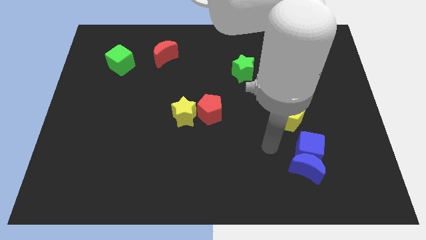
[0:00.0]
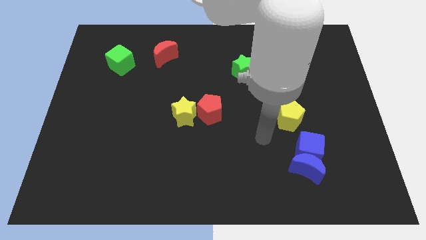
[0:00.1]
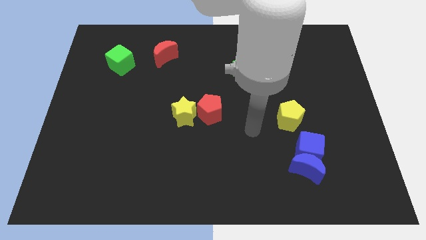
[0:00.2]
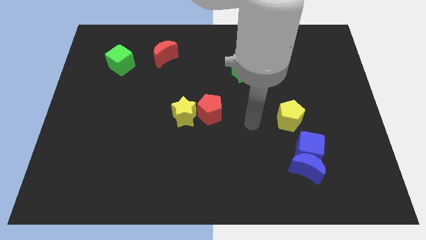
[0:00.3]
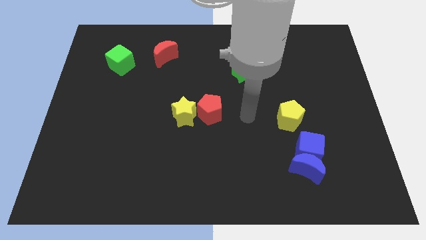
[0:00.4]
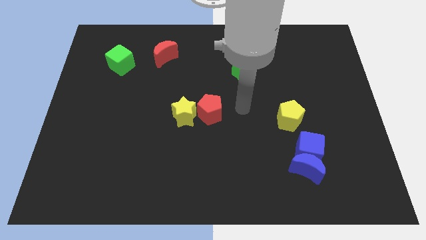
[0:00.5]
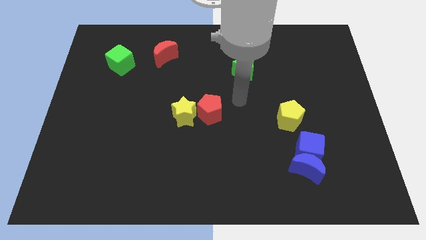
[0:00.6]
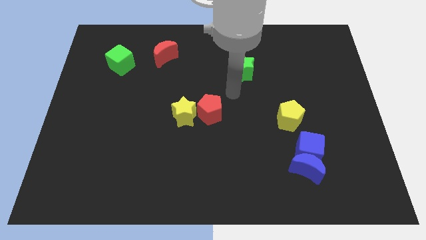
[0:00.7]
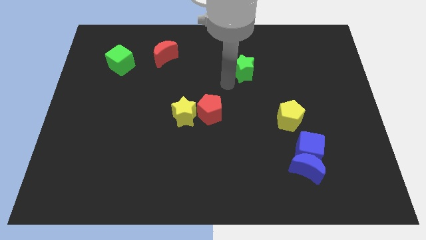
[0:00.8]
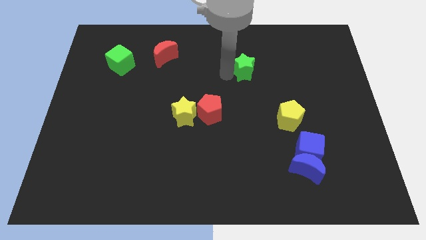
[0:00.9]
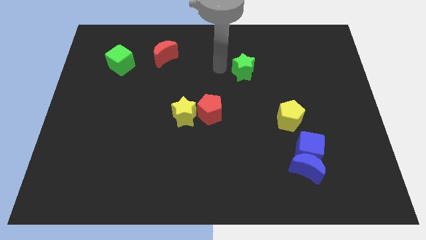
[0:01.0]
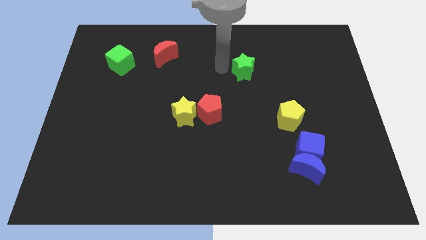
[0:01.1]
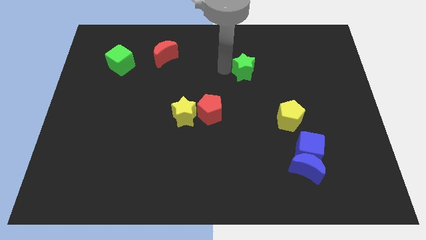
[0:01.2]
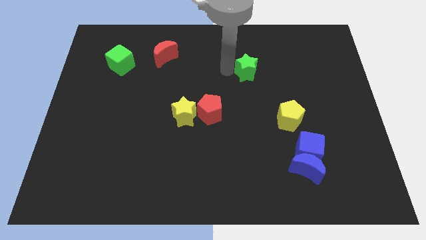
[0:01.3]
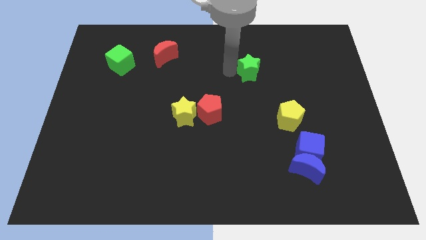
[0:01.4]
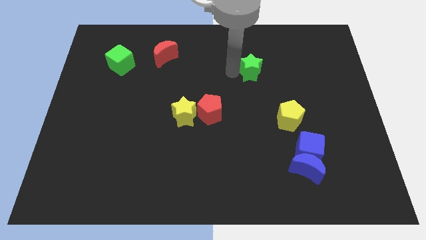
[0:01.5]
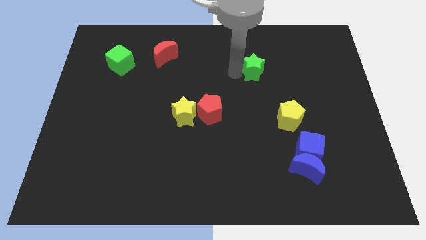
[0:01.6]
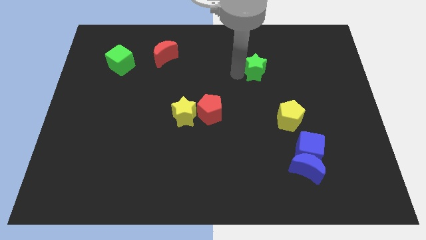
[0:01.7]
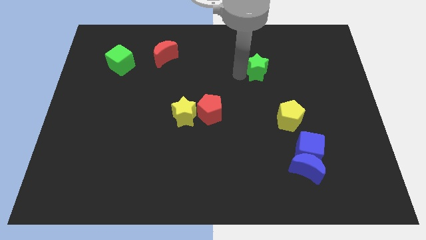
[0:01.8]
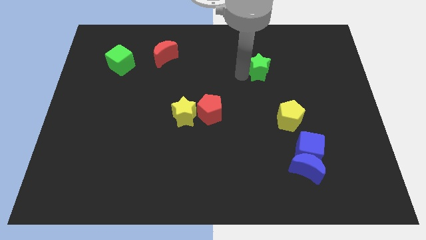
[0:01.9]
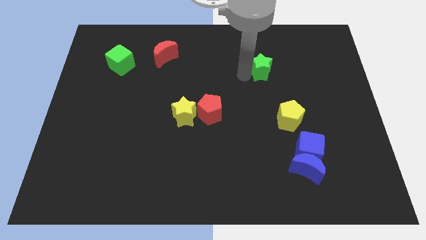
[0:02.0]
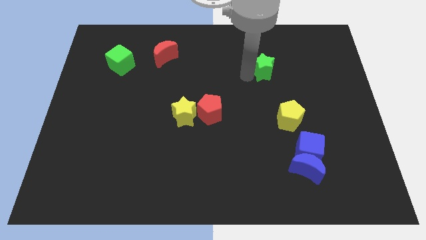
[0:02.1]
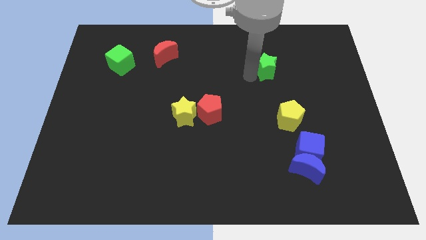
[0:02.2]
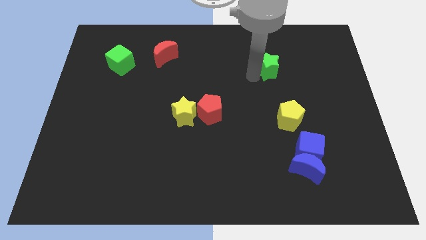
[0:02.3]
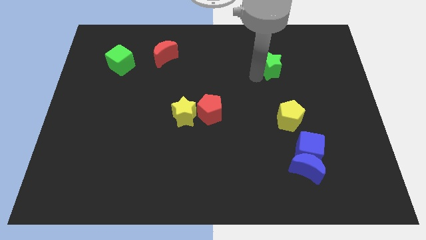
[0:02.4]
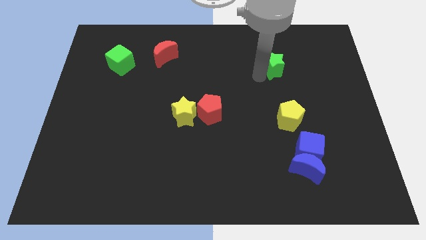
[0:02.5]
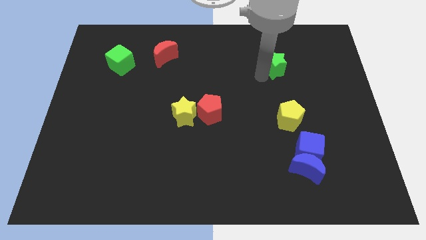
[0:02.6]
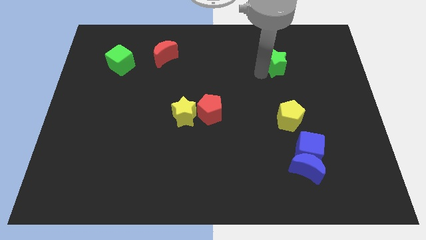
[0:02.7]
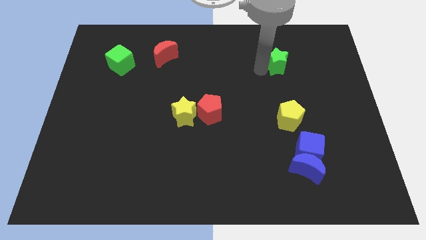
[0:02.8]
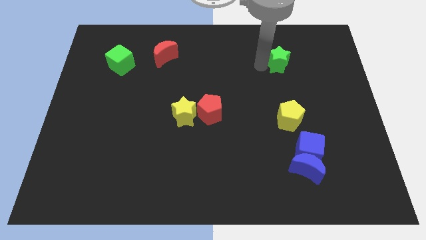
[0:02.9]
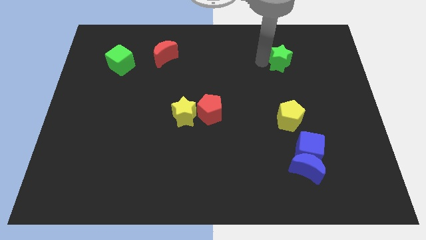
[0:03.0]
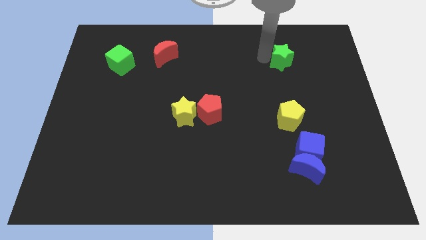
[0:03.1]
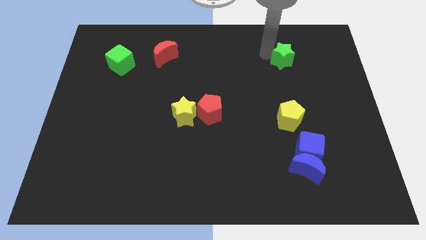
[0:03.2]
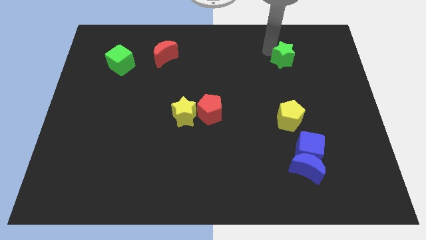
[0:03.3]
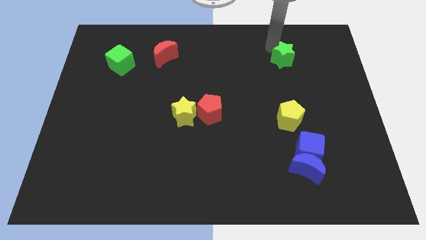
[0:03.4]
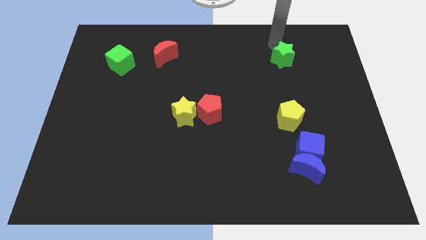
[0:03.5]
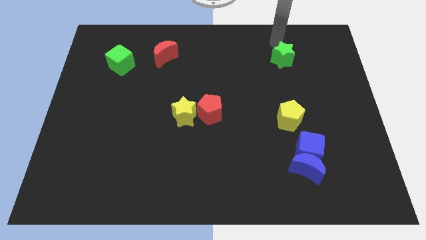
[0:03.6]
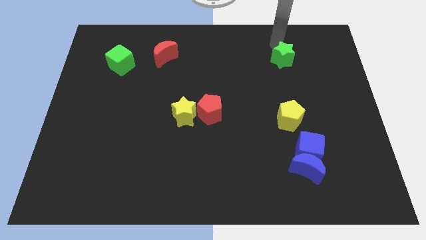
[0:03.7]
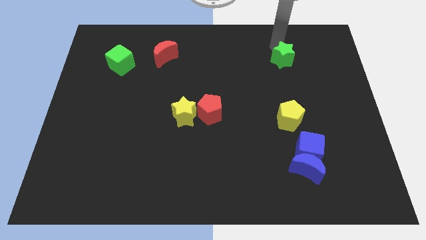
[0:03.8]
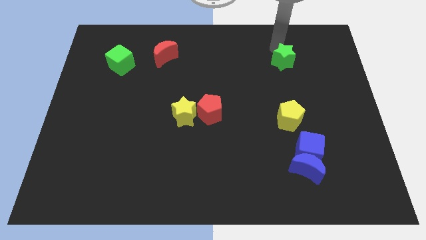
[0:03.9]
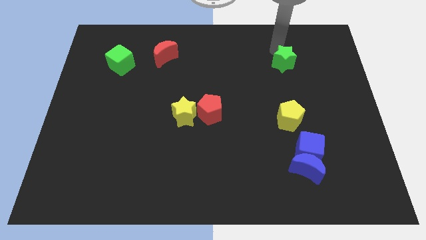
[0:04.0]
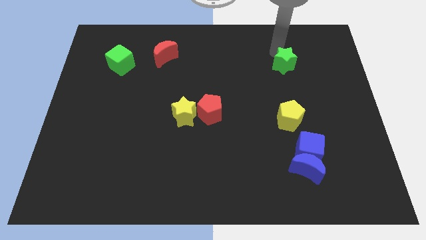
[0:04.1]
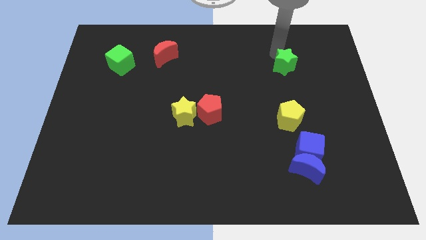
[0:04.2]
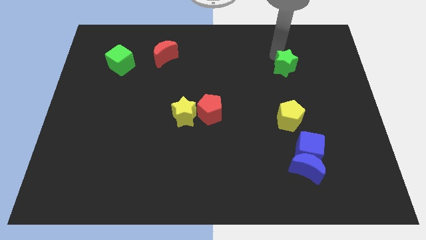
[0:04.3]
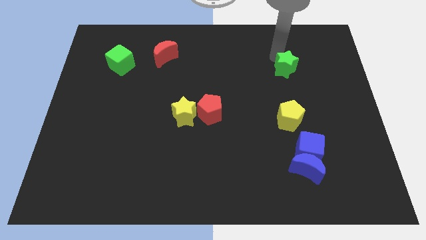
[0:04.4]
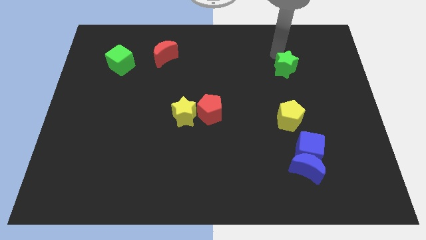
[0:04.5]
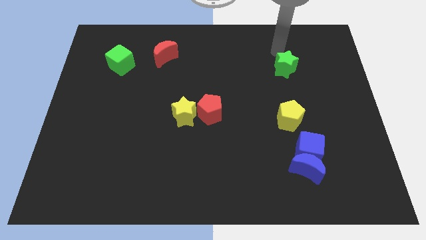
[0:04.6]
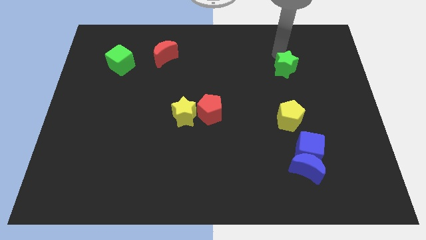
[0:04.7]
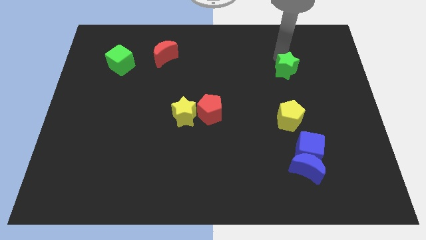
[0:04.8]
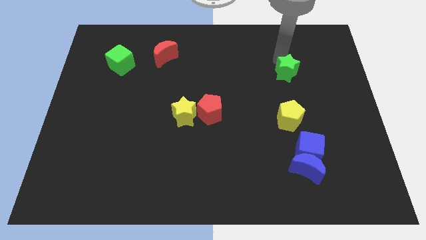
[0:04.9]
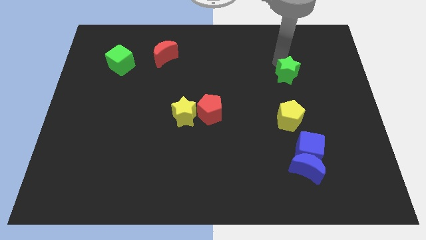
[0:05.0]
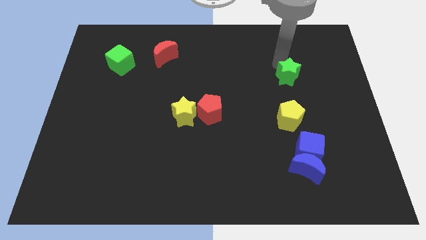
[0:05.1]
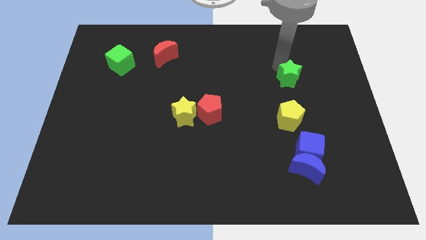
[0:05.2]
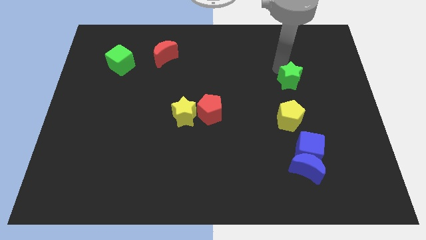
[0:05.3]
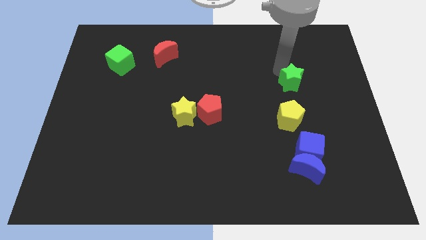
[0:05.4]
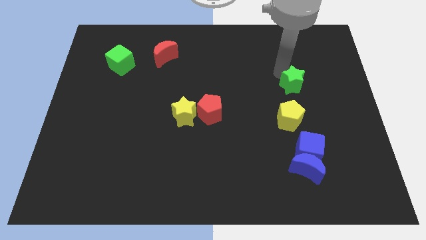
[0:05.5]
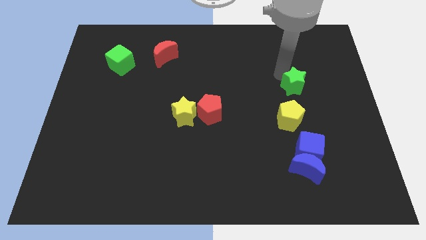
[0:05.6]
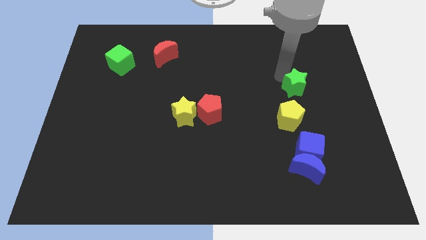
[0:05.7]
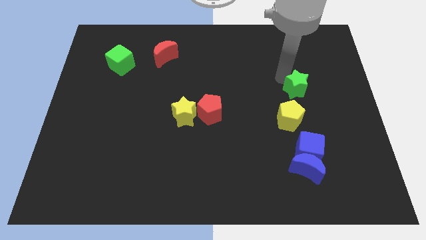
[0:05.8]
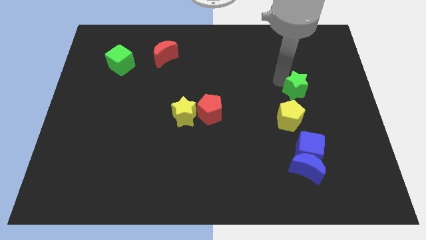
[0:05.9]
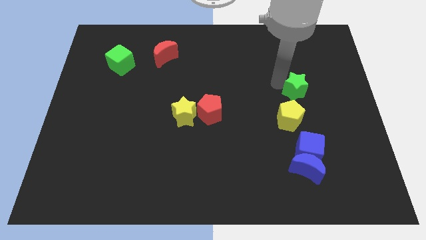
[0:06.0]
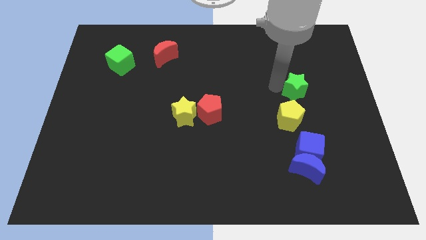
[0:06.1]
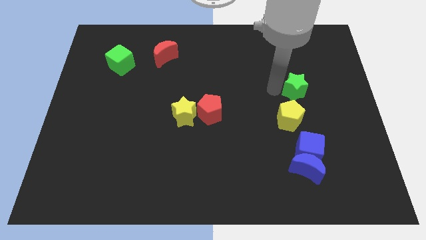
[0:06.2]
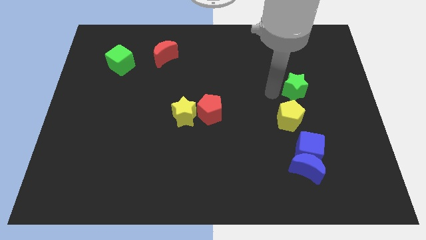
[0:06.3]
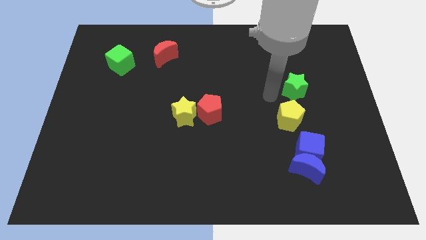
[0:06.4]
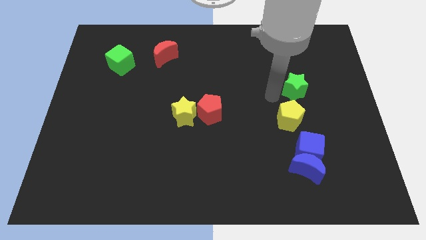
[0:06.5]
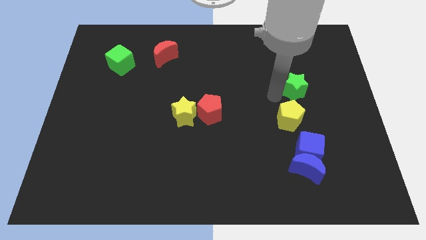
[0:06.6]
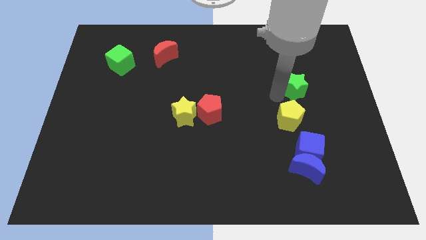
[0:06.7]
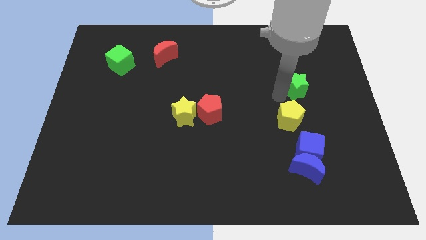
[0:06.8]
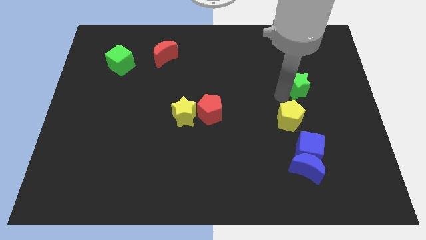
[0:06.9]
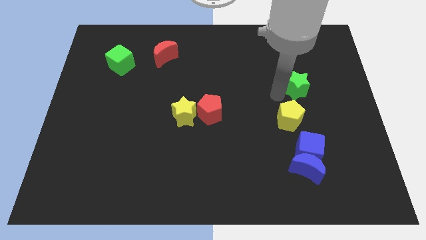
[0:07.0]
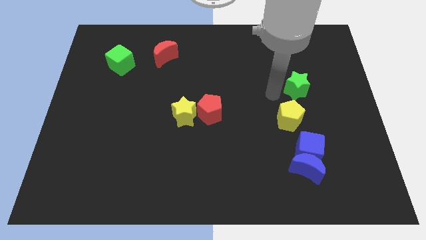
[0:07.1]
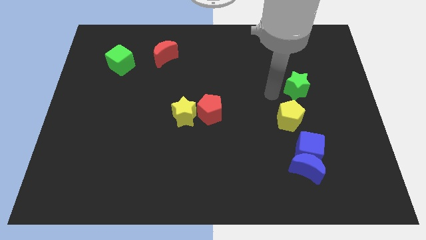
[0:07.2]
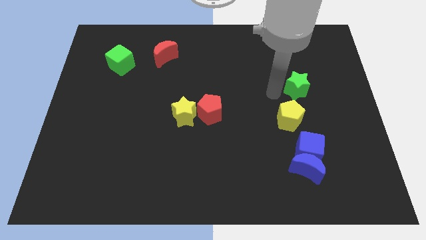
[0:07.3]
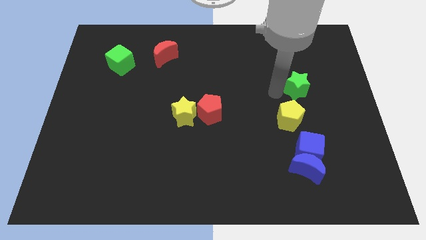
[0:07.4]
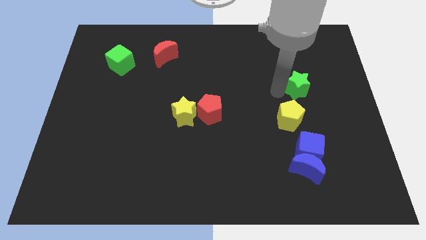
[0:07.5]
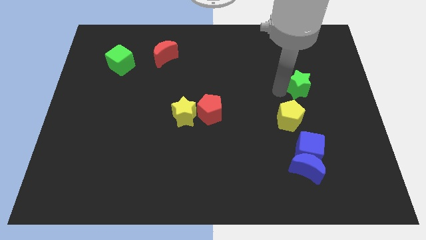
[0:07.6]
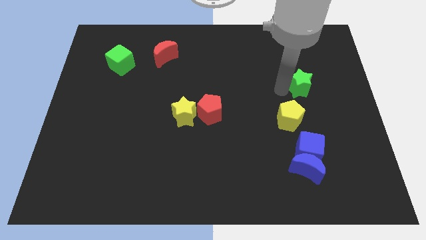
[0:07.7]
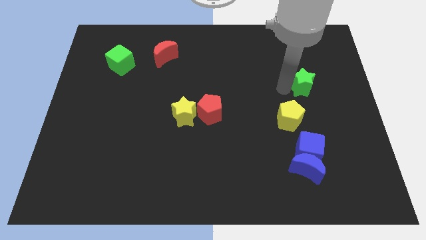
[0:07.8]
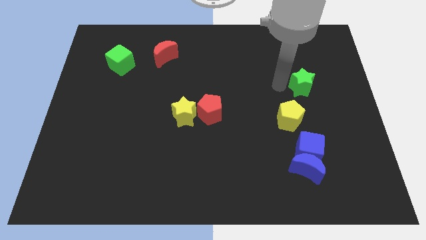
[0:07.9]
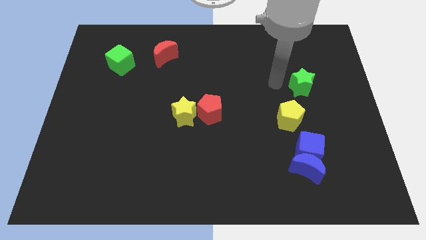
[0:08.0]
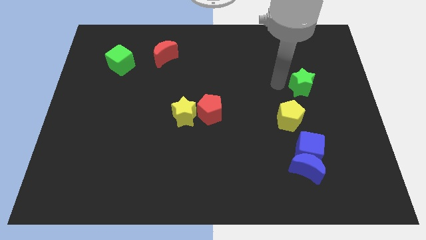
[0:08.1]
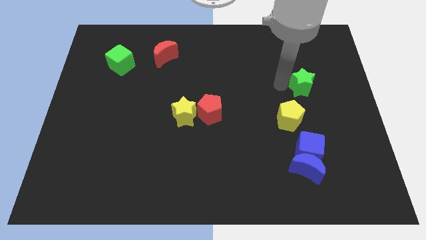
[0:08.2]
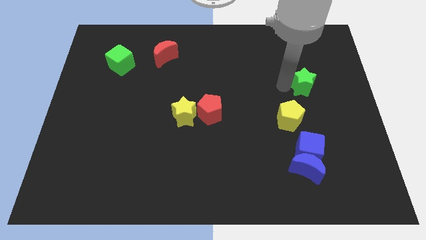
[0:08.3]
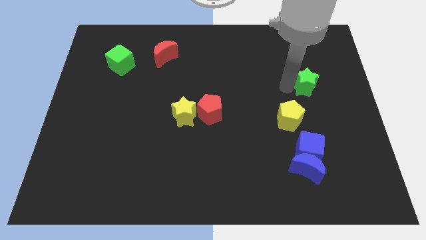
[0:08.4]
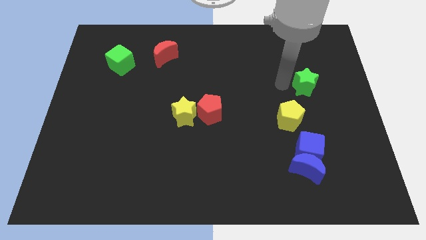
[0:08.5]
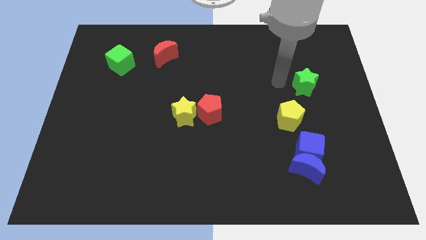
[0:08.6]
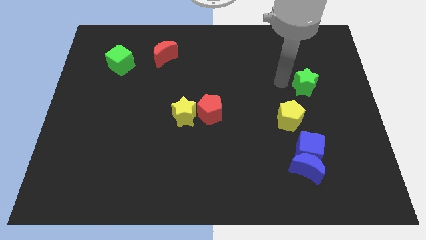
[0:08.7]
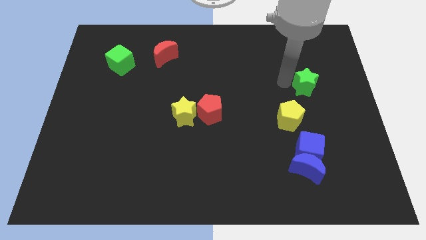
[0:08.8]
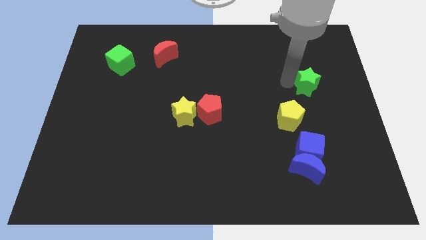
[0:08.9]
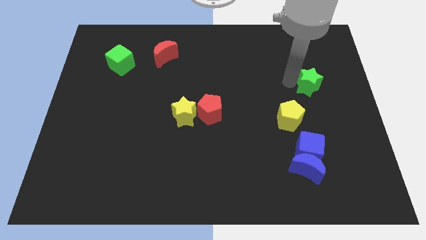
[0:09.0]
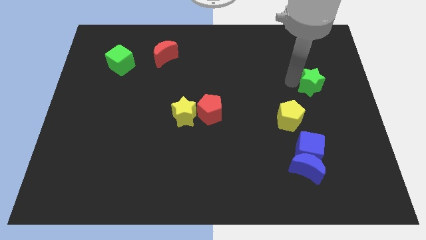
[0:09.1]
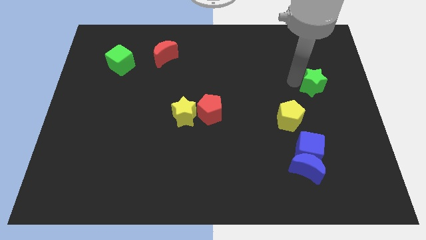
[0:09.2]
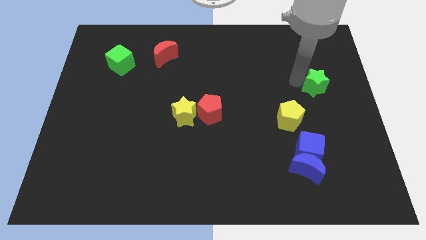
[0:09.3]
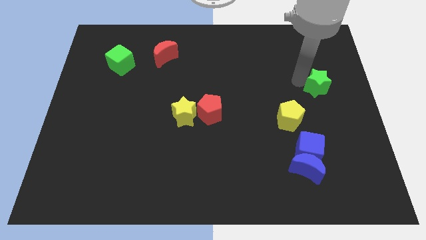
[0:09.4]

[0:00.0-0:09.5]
push the green star to the right side
